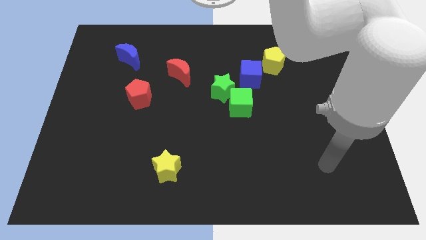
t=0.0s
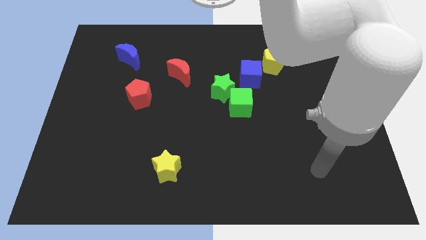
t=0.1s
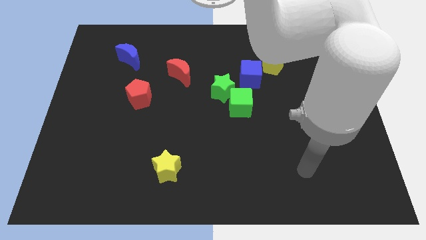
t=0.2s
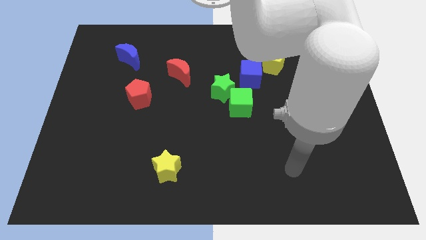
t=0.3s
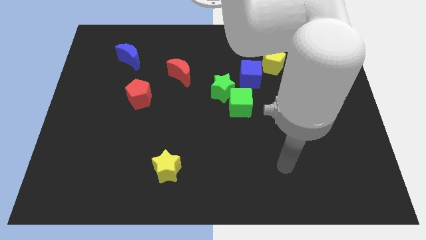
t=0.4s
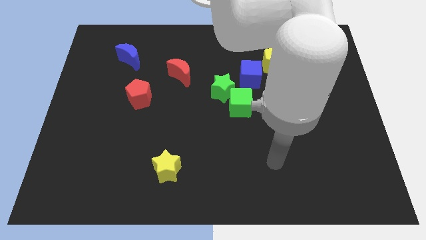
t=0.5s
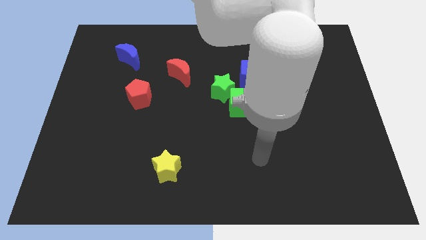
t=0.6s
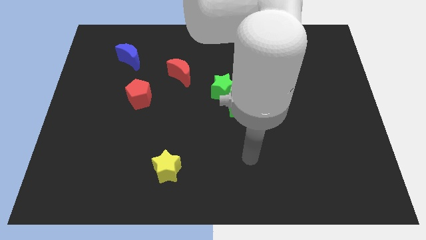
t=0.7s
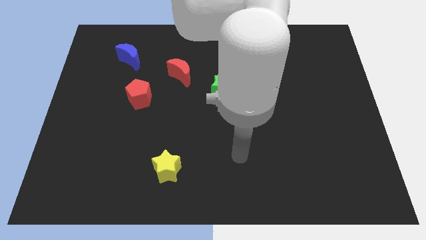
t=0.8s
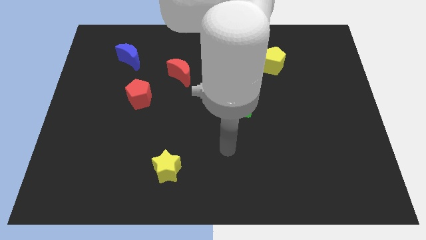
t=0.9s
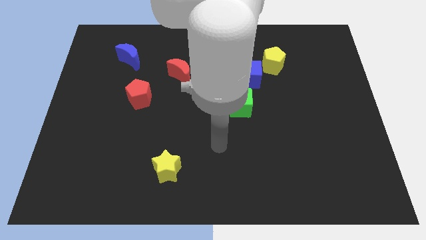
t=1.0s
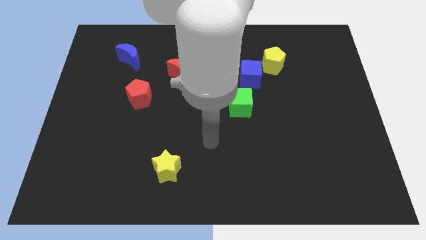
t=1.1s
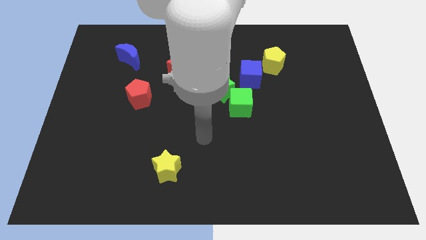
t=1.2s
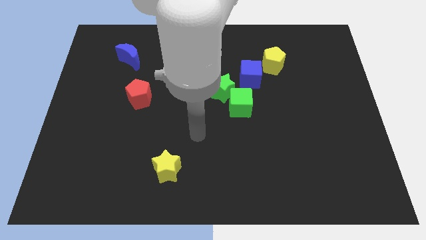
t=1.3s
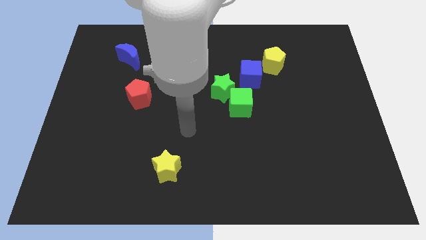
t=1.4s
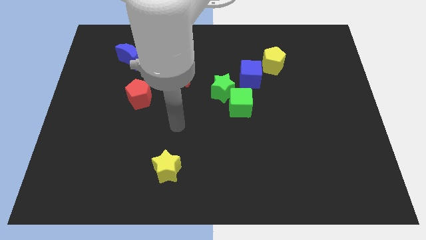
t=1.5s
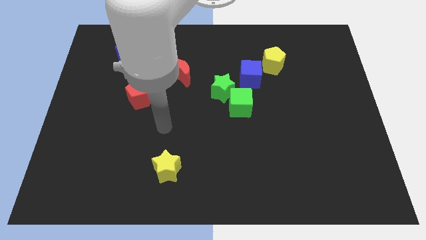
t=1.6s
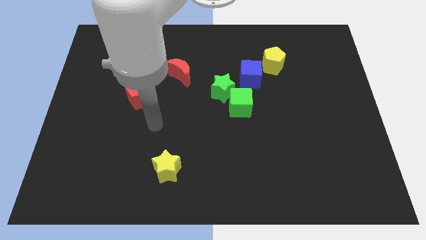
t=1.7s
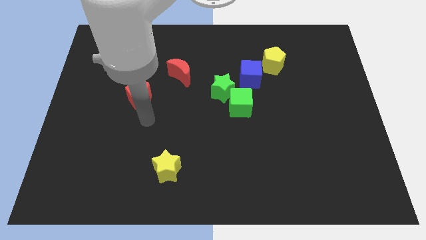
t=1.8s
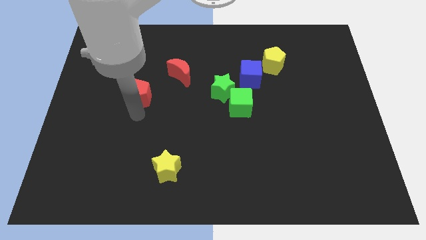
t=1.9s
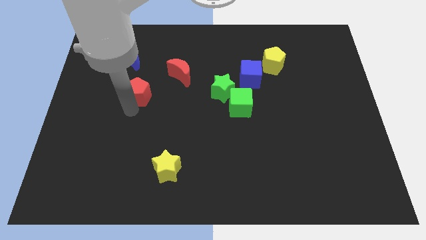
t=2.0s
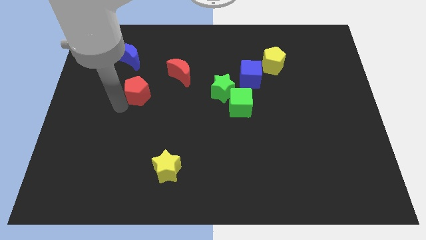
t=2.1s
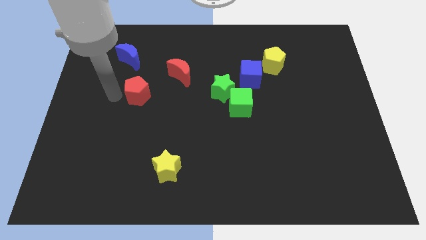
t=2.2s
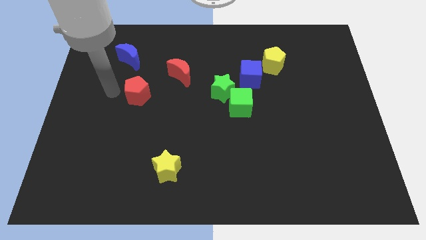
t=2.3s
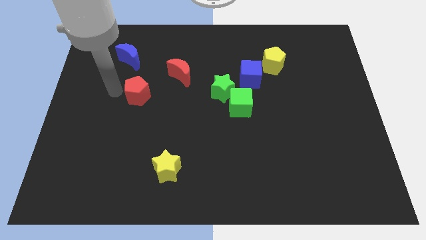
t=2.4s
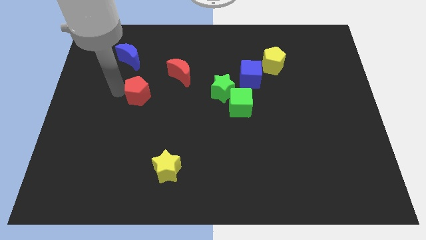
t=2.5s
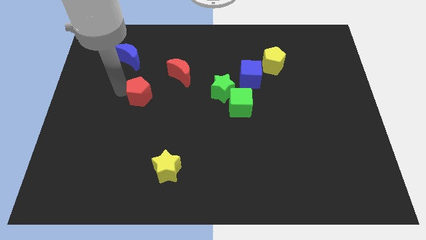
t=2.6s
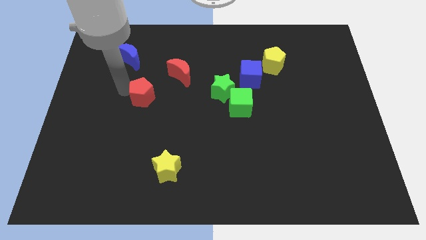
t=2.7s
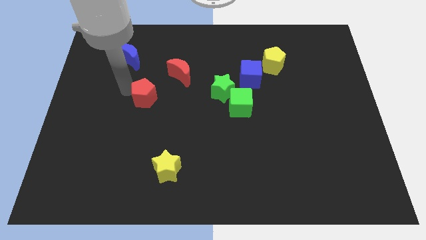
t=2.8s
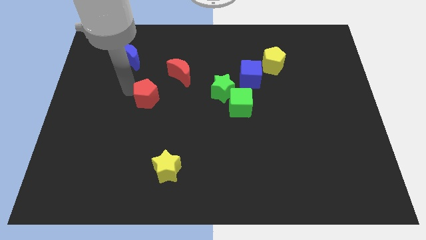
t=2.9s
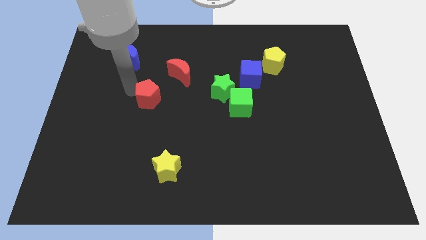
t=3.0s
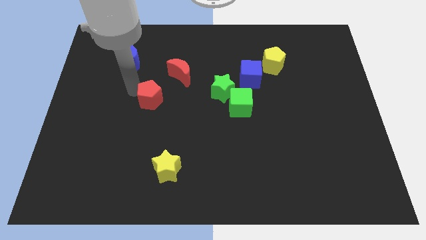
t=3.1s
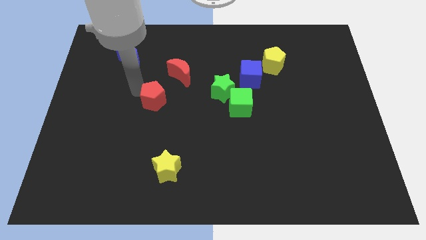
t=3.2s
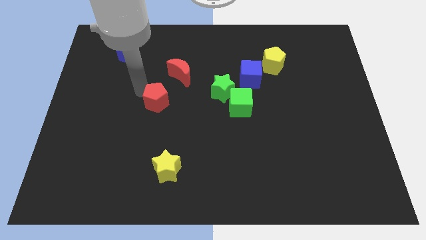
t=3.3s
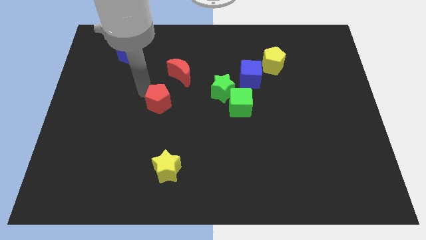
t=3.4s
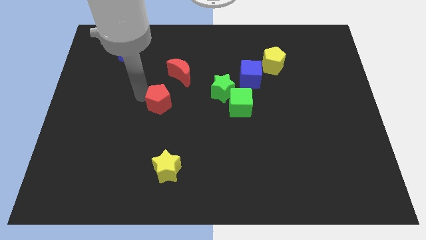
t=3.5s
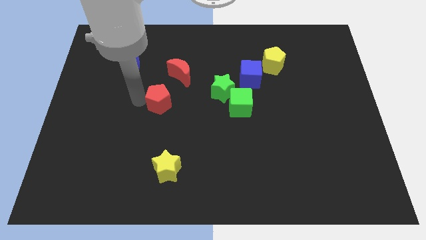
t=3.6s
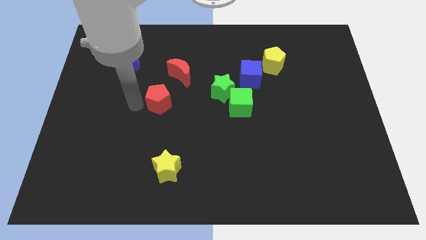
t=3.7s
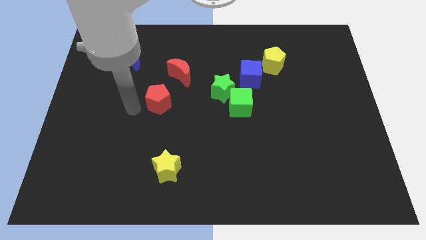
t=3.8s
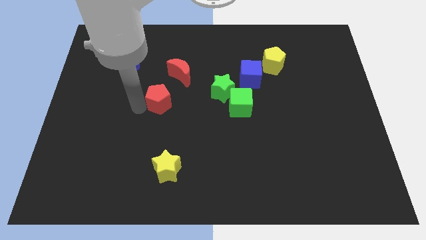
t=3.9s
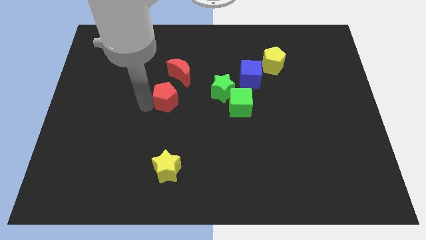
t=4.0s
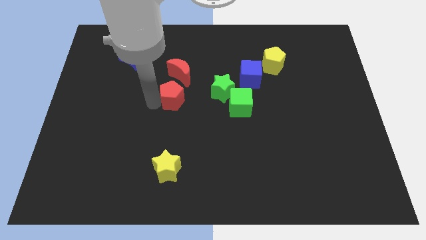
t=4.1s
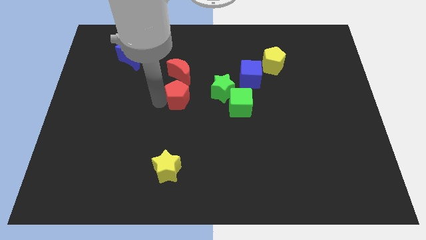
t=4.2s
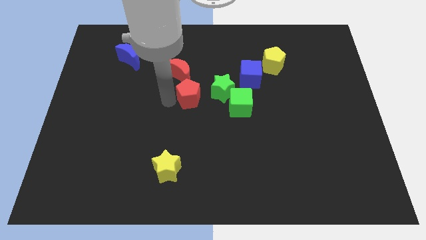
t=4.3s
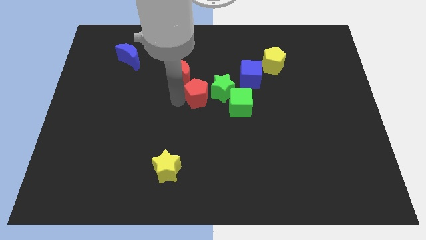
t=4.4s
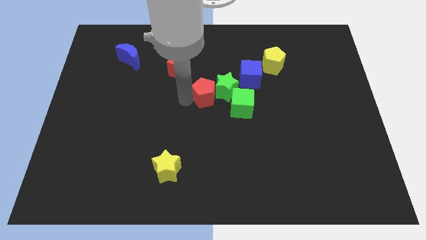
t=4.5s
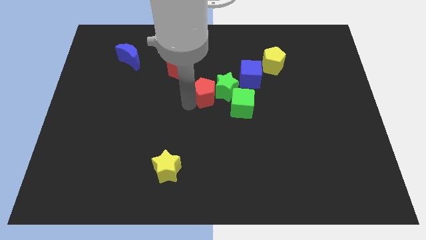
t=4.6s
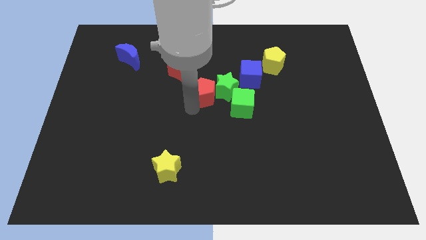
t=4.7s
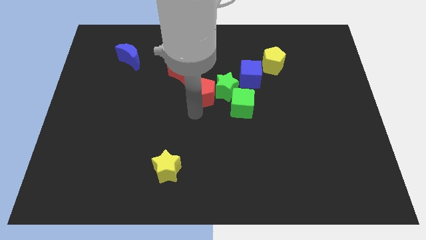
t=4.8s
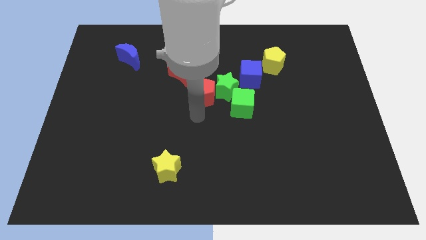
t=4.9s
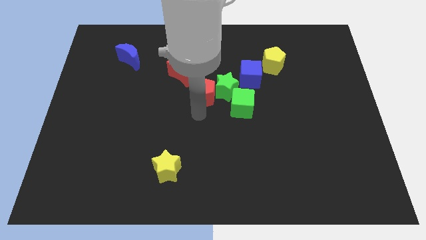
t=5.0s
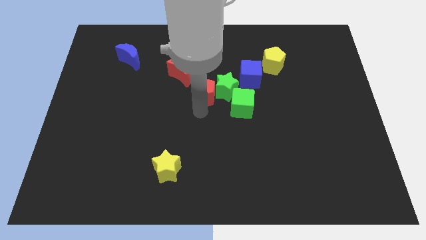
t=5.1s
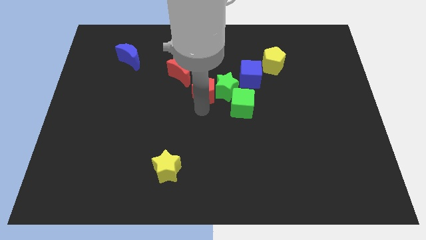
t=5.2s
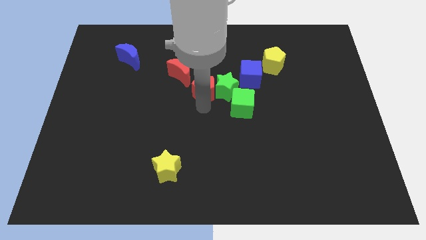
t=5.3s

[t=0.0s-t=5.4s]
push the red pentagon to the left side of the blue cube

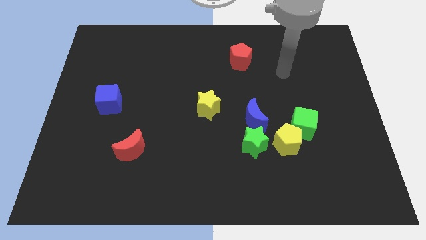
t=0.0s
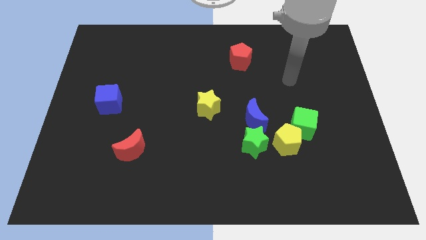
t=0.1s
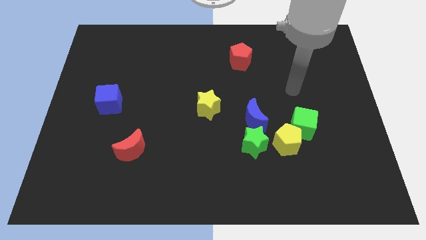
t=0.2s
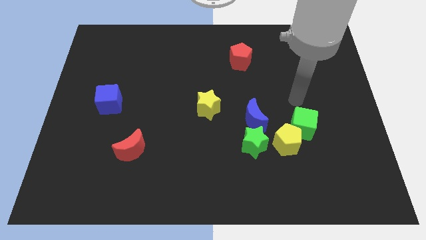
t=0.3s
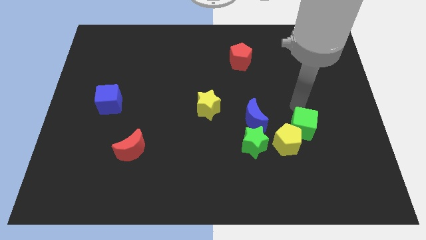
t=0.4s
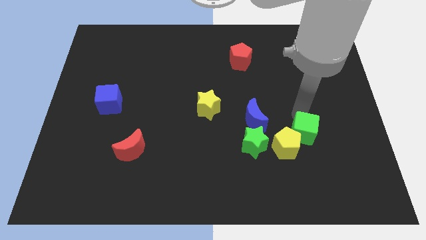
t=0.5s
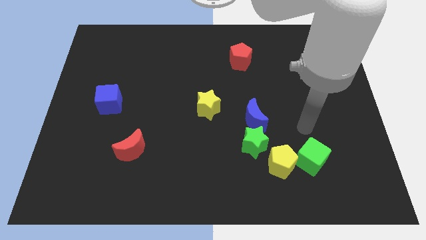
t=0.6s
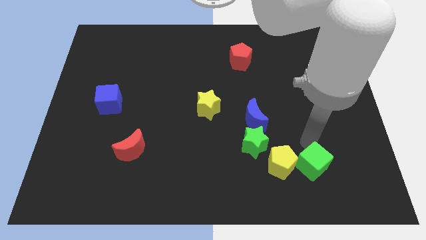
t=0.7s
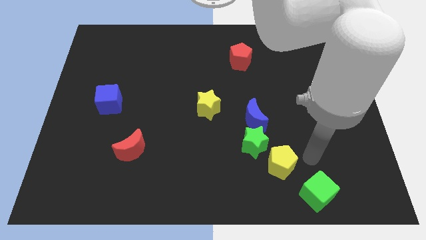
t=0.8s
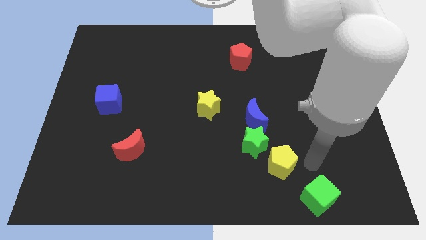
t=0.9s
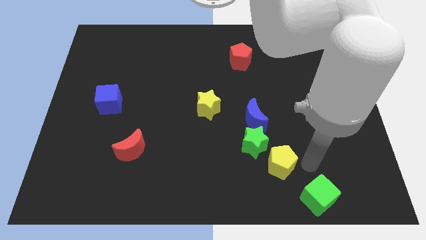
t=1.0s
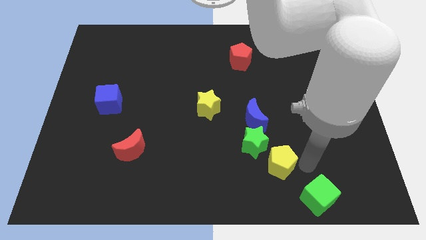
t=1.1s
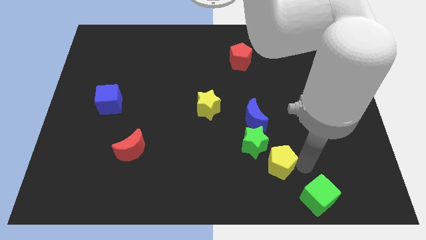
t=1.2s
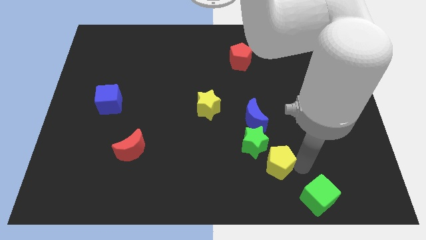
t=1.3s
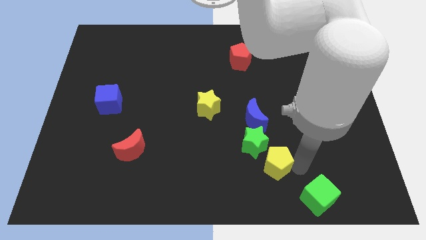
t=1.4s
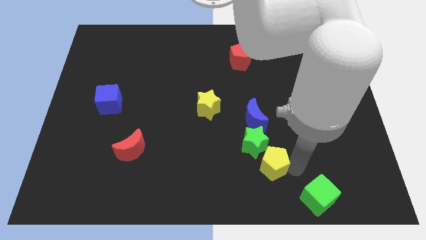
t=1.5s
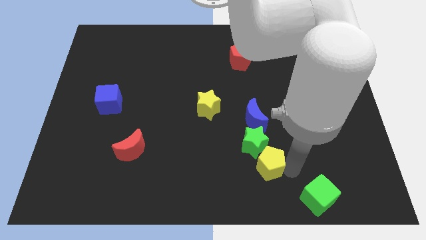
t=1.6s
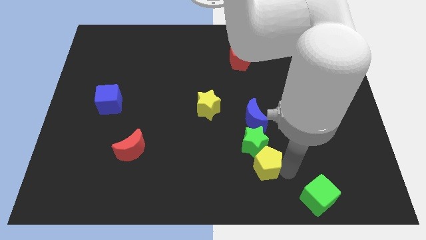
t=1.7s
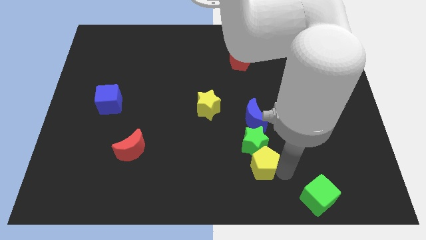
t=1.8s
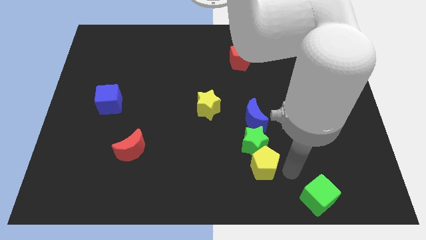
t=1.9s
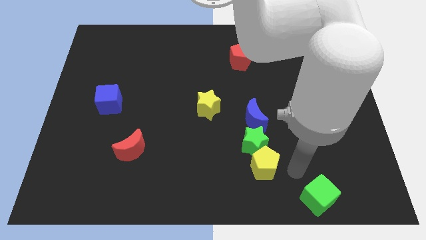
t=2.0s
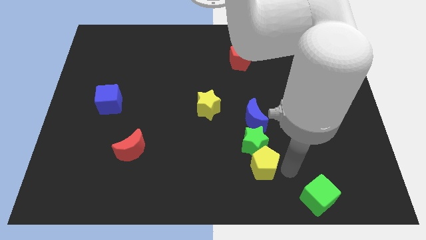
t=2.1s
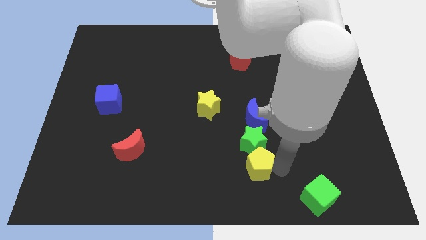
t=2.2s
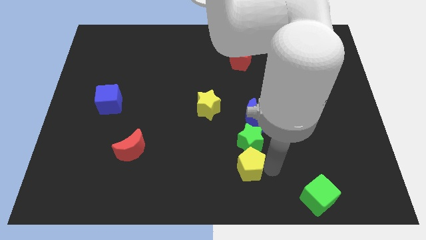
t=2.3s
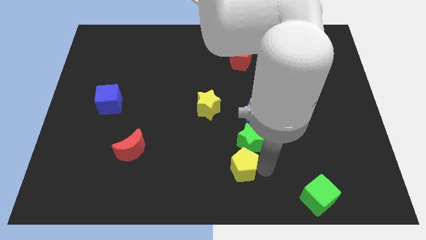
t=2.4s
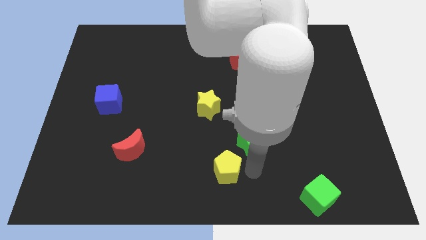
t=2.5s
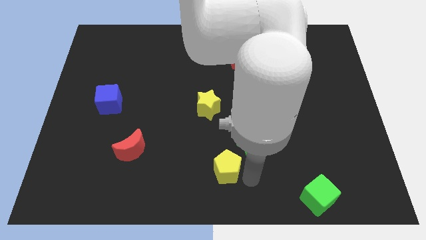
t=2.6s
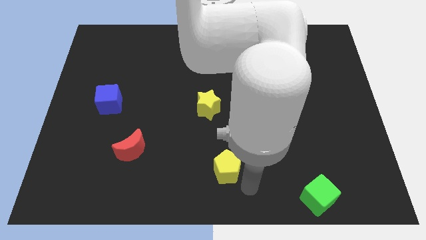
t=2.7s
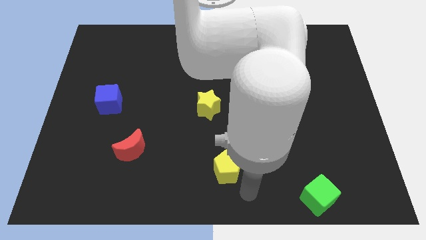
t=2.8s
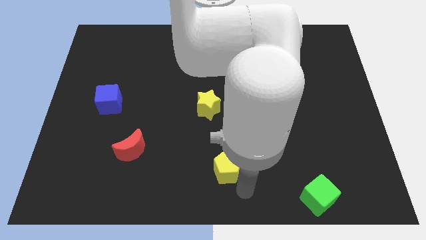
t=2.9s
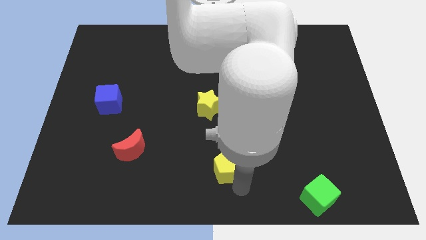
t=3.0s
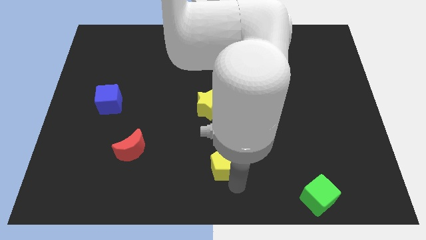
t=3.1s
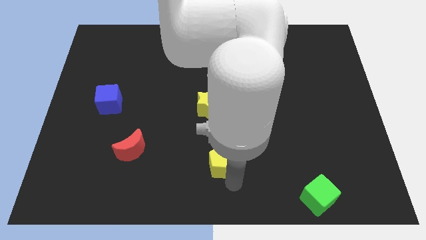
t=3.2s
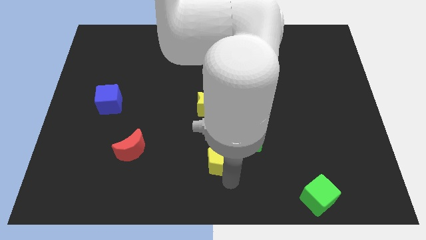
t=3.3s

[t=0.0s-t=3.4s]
move the yellow pentagon to the left side of the green star
